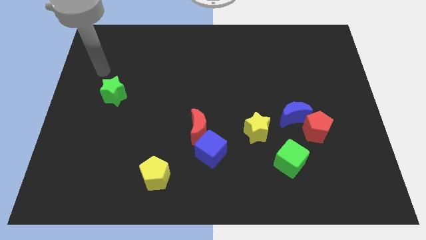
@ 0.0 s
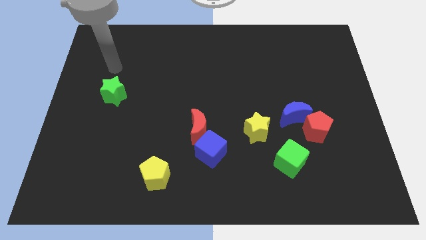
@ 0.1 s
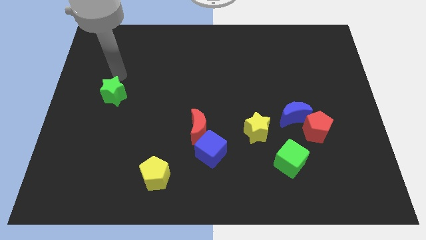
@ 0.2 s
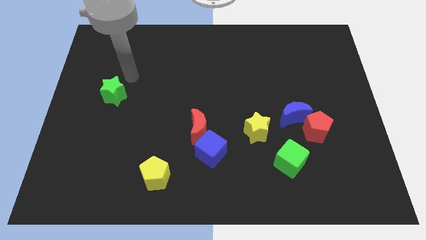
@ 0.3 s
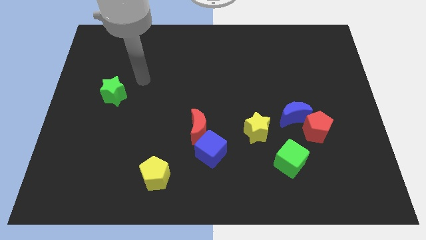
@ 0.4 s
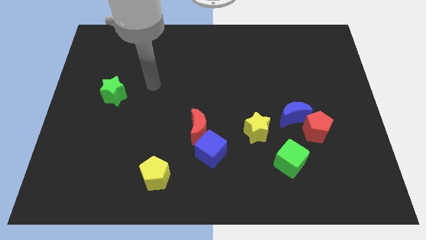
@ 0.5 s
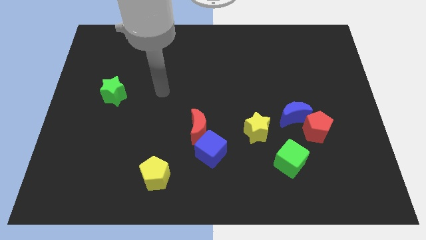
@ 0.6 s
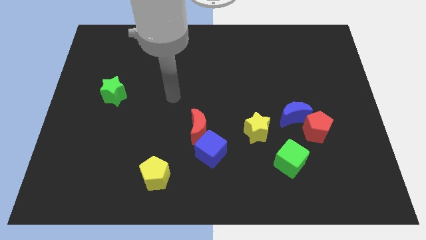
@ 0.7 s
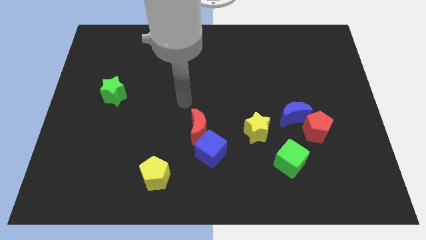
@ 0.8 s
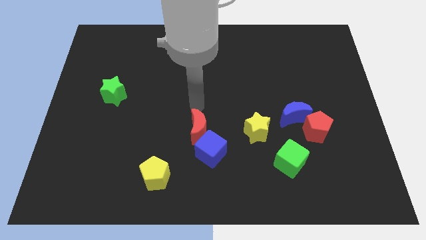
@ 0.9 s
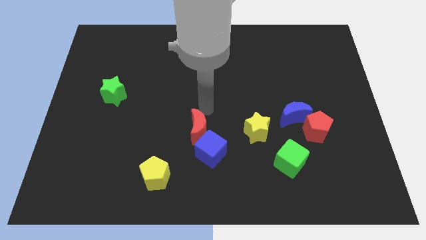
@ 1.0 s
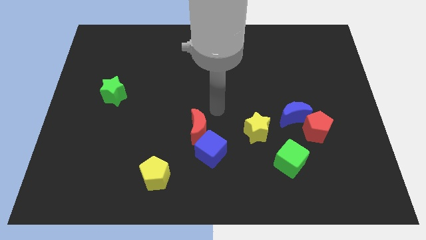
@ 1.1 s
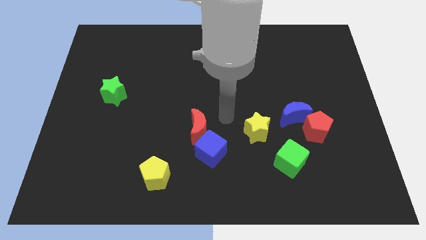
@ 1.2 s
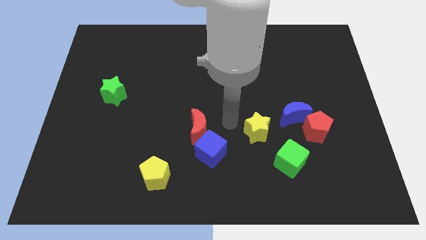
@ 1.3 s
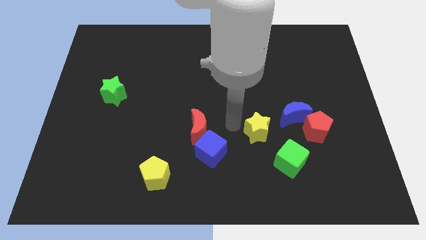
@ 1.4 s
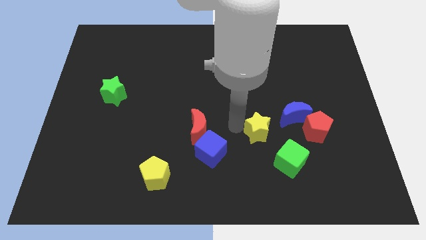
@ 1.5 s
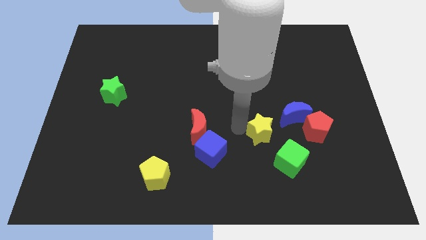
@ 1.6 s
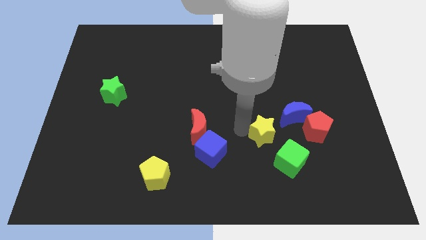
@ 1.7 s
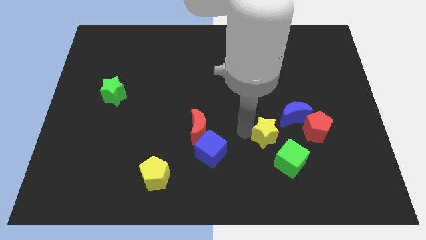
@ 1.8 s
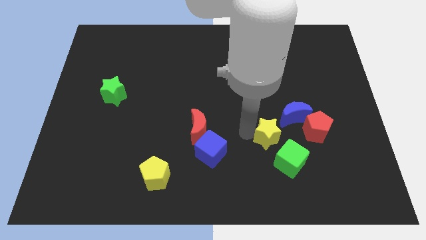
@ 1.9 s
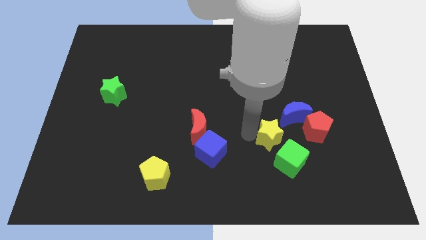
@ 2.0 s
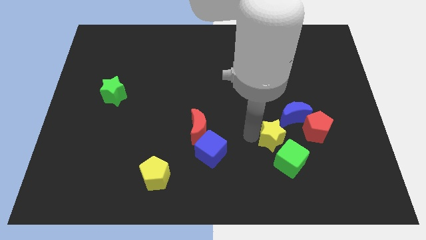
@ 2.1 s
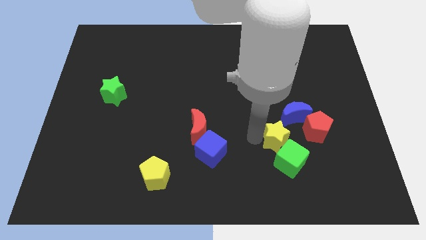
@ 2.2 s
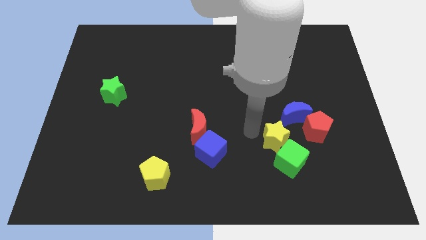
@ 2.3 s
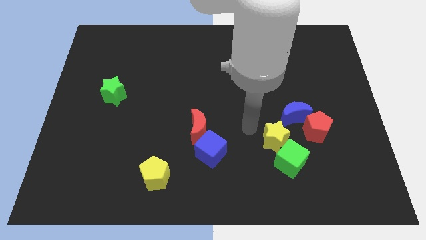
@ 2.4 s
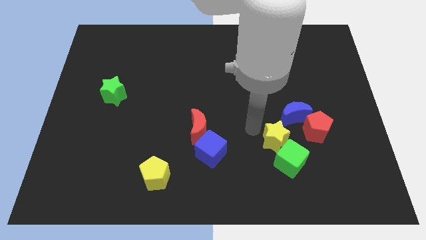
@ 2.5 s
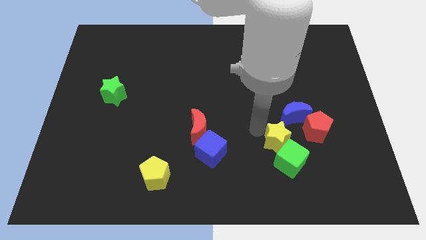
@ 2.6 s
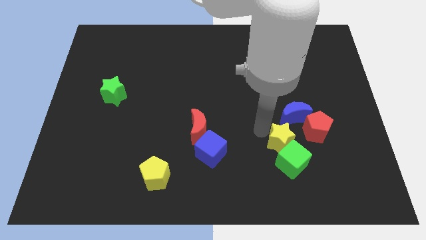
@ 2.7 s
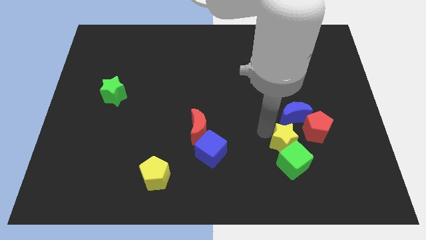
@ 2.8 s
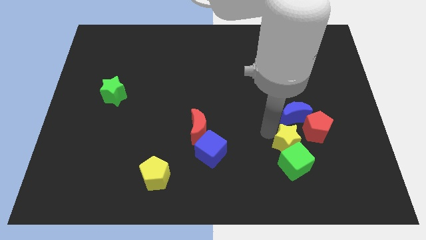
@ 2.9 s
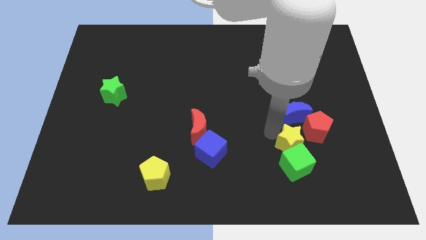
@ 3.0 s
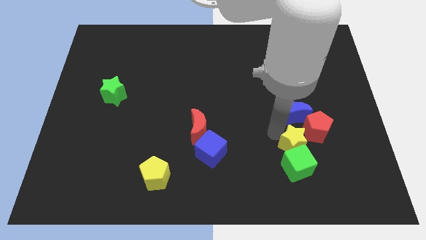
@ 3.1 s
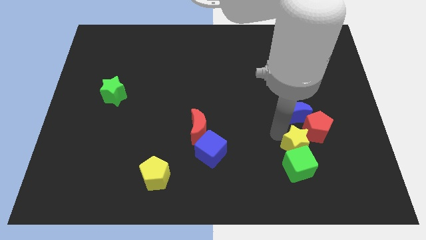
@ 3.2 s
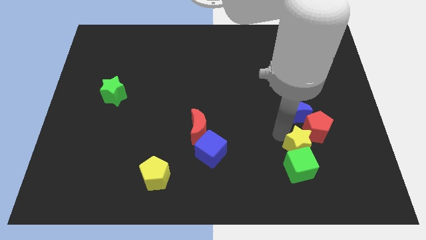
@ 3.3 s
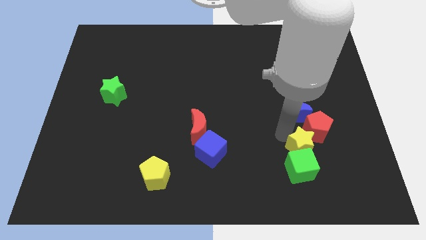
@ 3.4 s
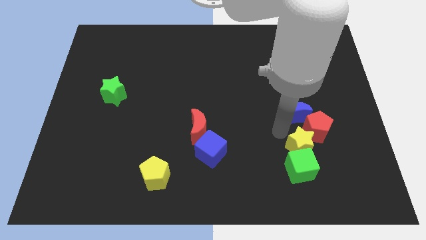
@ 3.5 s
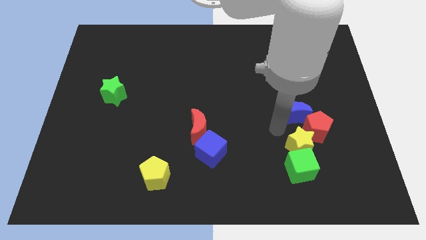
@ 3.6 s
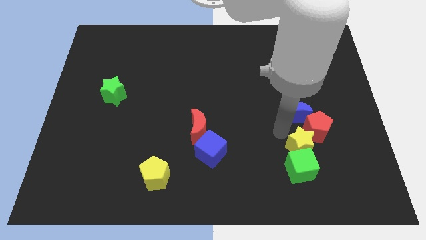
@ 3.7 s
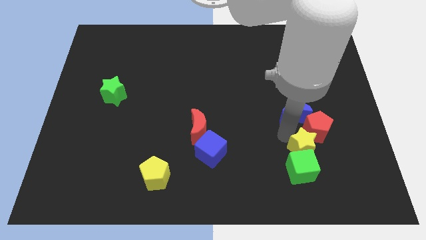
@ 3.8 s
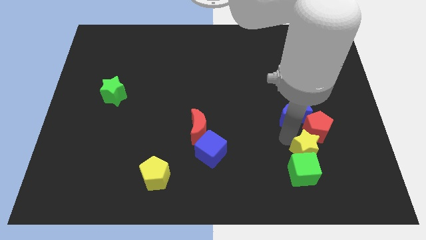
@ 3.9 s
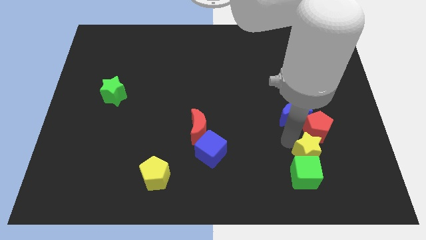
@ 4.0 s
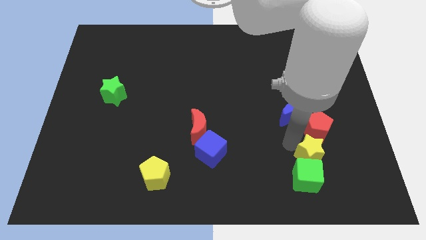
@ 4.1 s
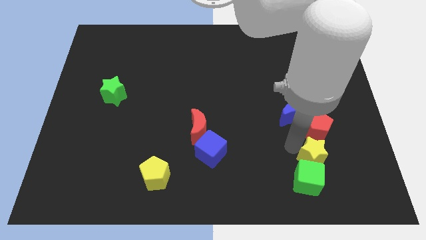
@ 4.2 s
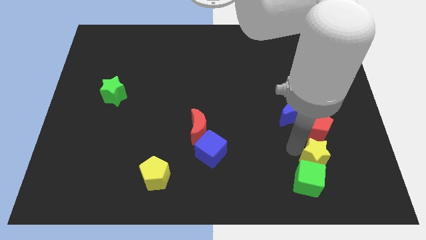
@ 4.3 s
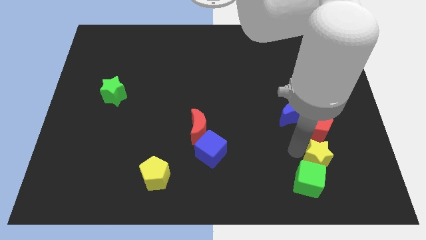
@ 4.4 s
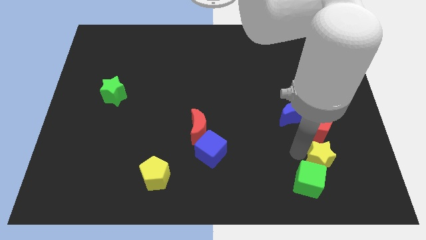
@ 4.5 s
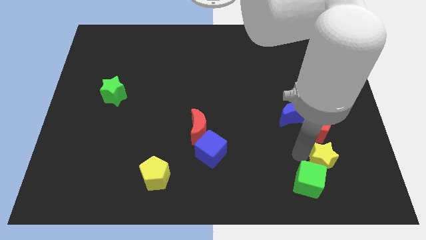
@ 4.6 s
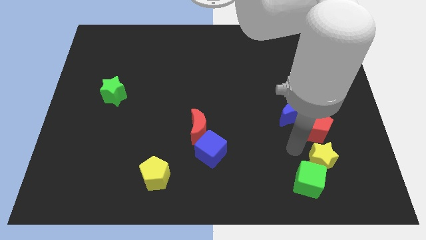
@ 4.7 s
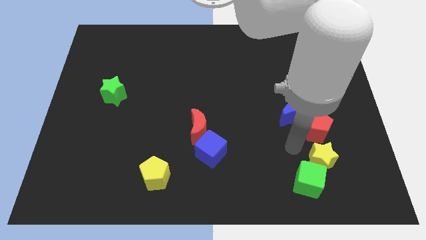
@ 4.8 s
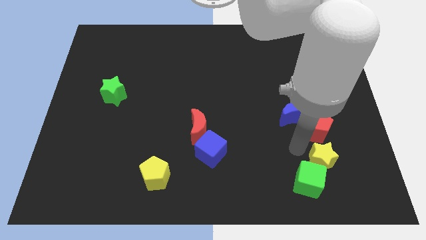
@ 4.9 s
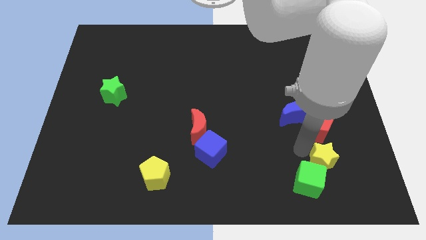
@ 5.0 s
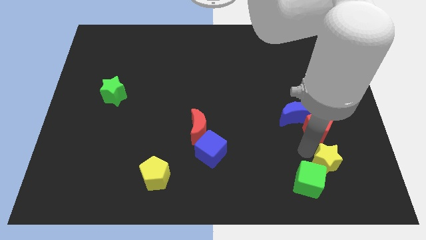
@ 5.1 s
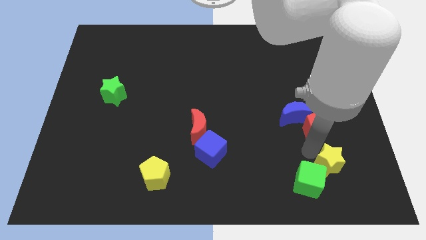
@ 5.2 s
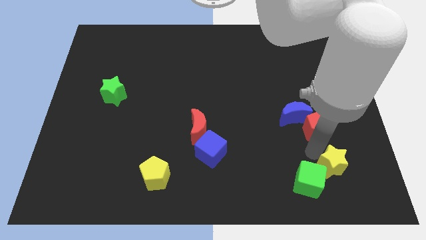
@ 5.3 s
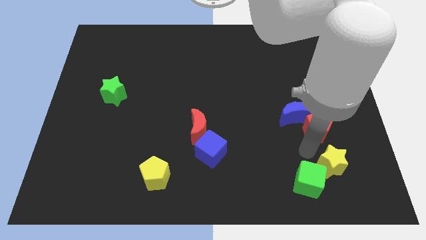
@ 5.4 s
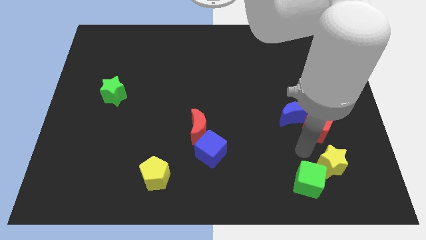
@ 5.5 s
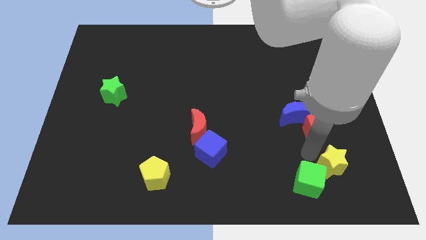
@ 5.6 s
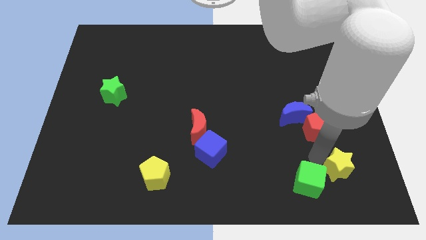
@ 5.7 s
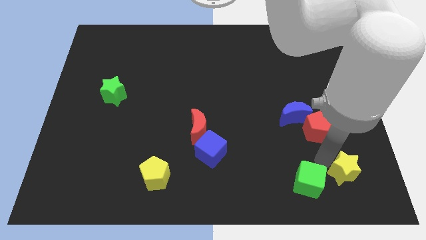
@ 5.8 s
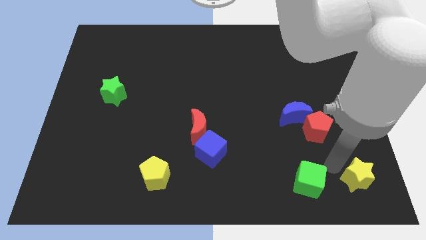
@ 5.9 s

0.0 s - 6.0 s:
push the yellow star to the bottom right of the board
